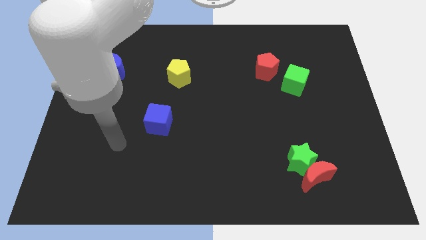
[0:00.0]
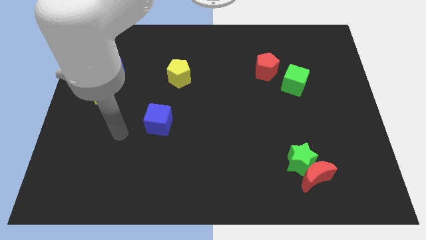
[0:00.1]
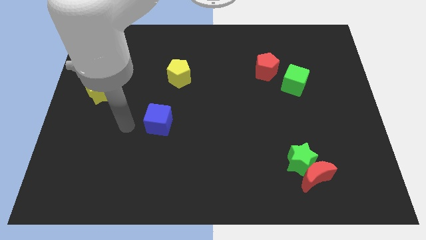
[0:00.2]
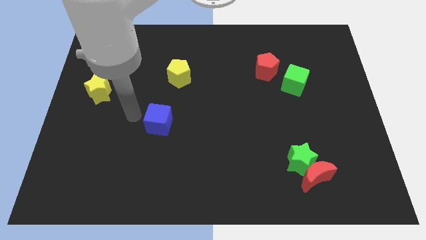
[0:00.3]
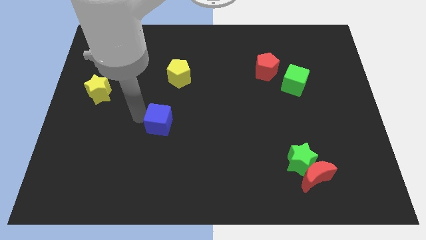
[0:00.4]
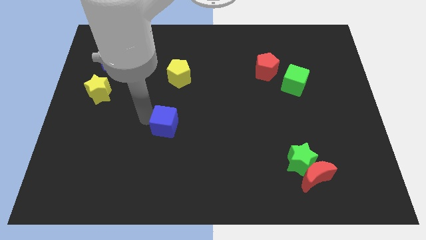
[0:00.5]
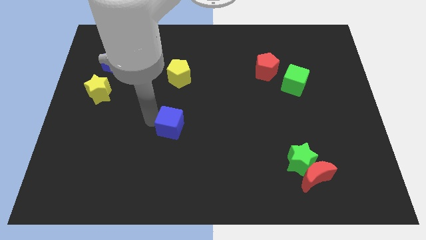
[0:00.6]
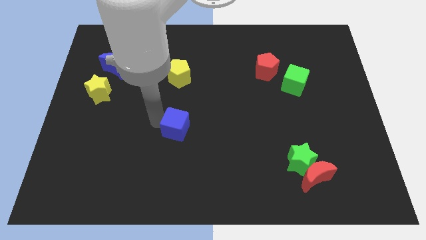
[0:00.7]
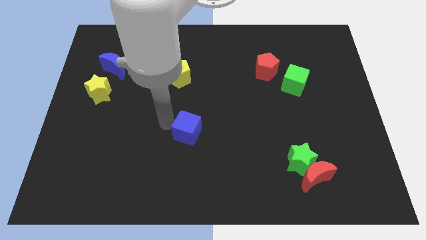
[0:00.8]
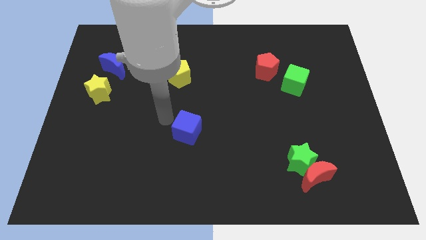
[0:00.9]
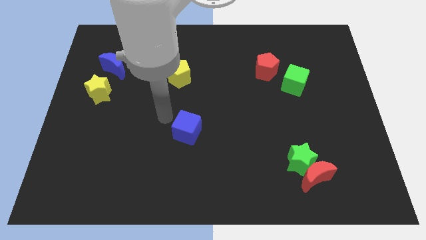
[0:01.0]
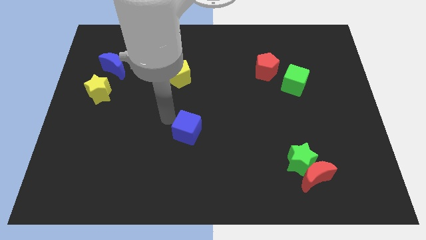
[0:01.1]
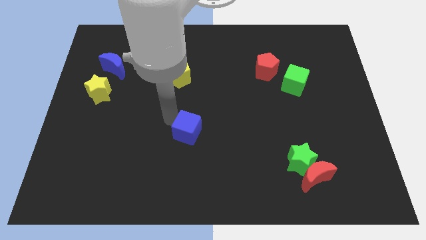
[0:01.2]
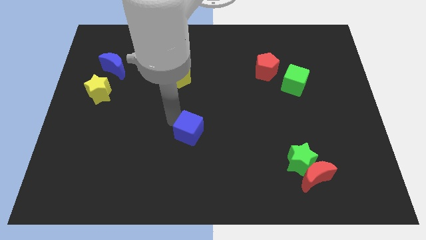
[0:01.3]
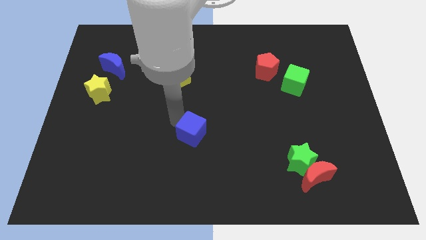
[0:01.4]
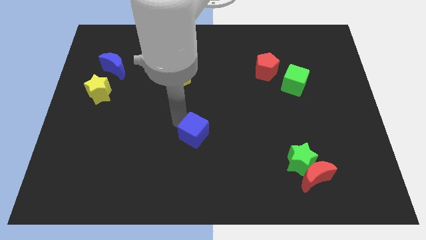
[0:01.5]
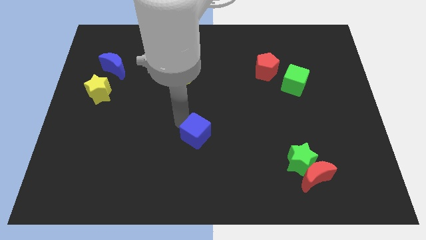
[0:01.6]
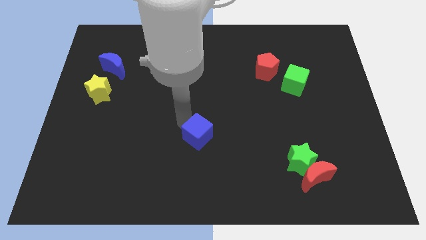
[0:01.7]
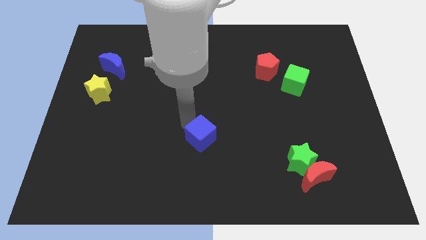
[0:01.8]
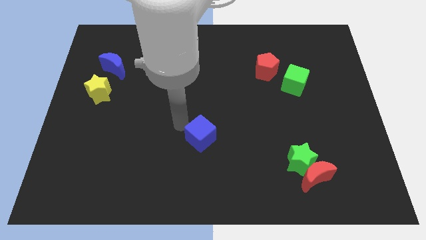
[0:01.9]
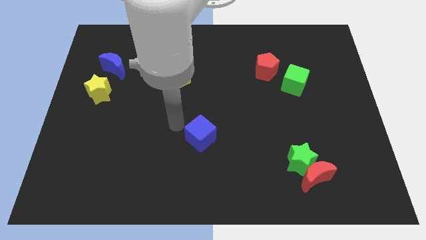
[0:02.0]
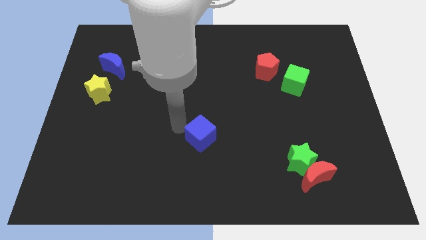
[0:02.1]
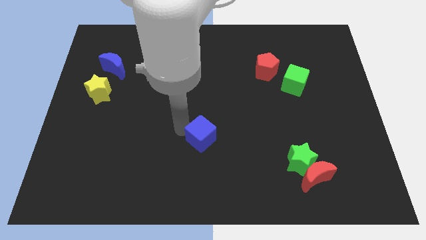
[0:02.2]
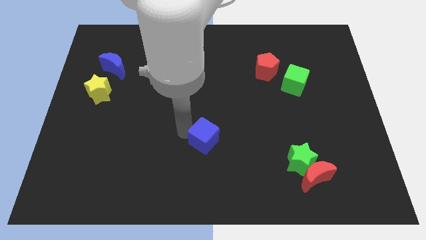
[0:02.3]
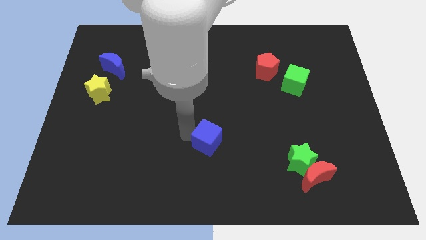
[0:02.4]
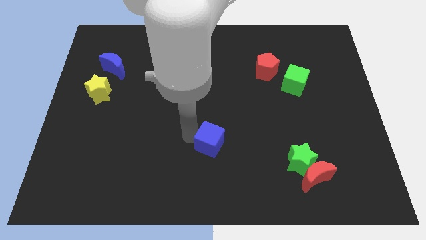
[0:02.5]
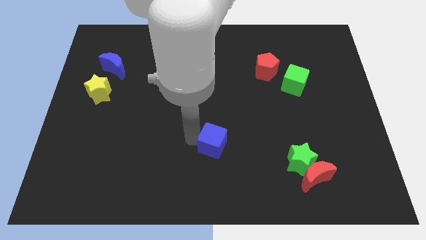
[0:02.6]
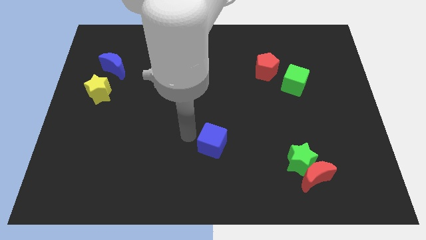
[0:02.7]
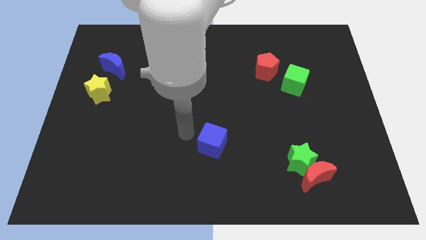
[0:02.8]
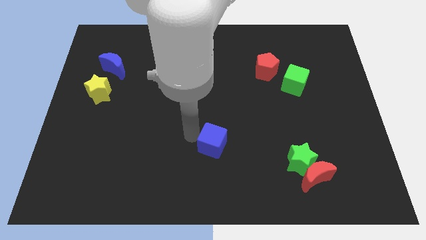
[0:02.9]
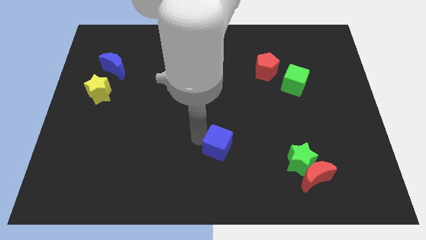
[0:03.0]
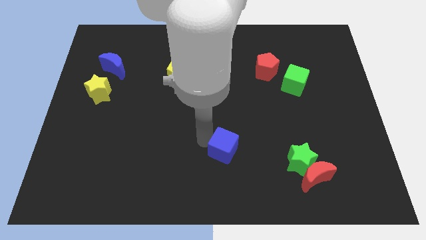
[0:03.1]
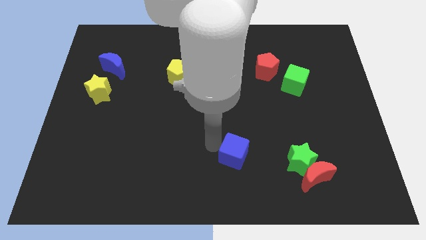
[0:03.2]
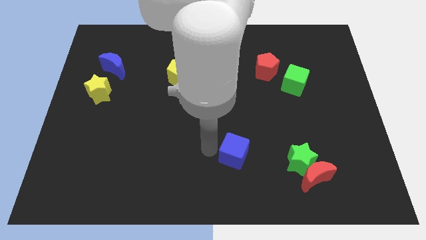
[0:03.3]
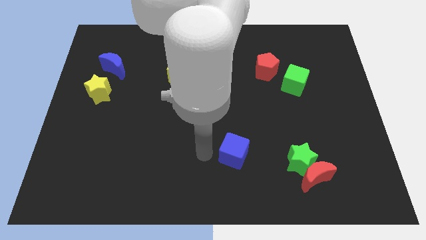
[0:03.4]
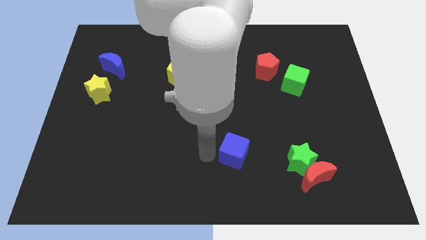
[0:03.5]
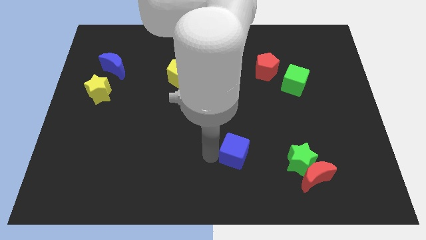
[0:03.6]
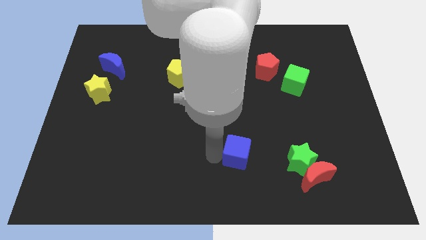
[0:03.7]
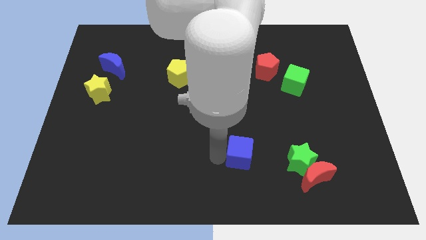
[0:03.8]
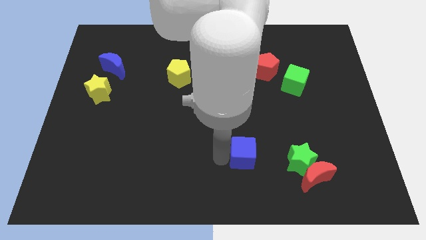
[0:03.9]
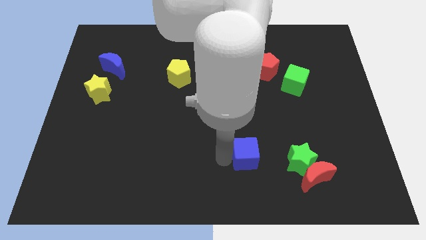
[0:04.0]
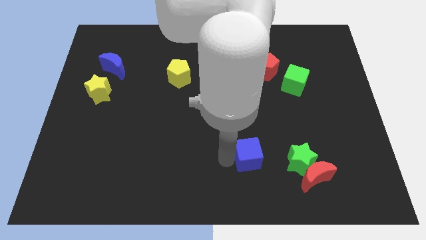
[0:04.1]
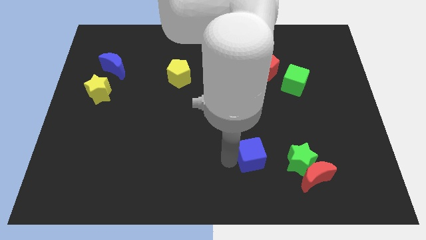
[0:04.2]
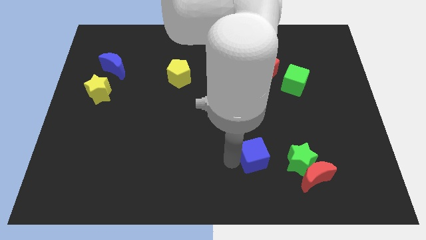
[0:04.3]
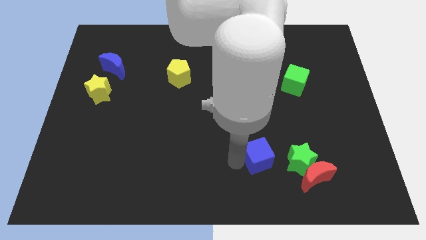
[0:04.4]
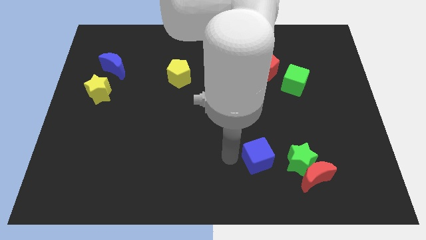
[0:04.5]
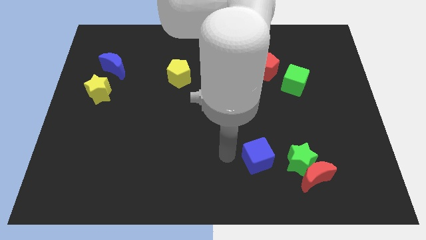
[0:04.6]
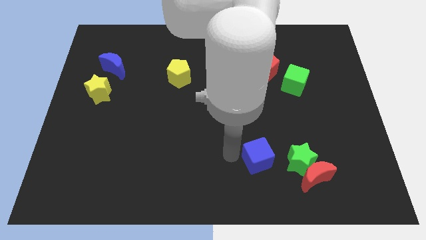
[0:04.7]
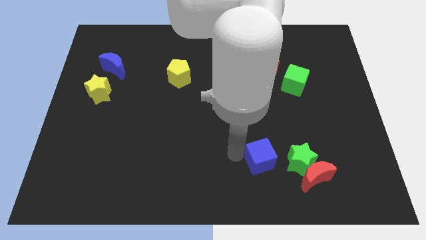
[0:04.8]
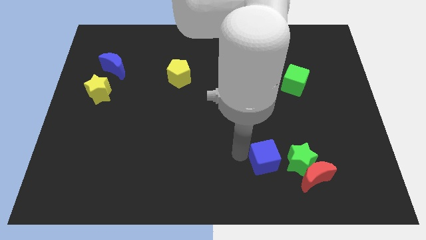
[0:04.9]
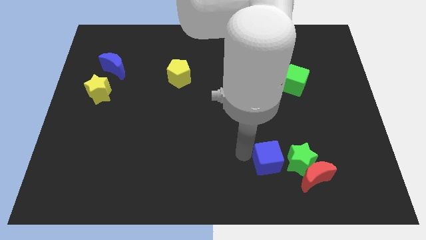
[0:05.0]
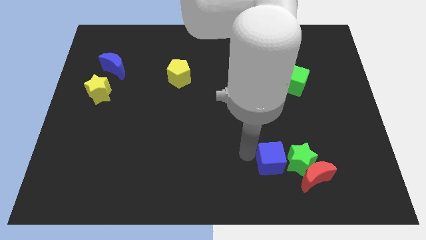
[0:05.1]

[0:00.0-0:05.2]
put the blue cube close to the green star

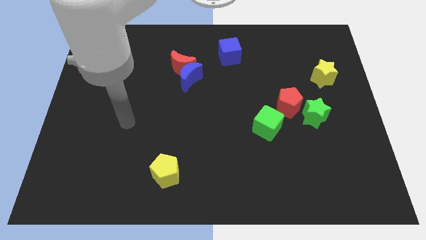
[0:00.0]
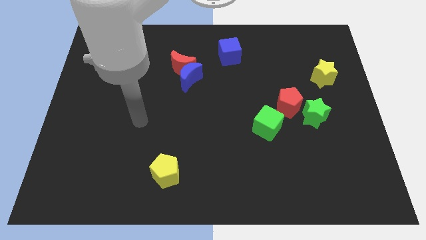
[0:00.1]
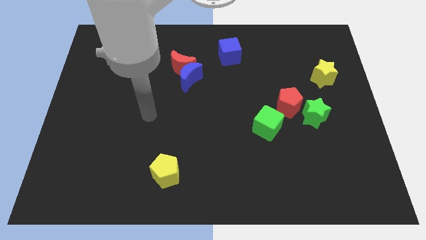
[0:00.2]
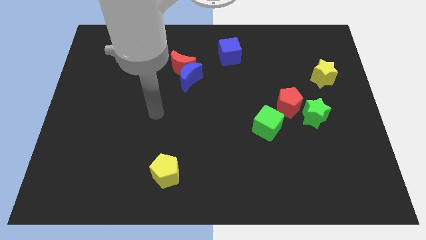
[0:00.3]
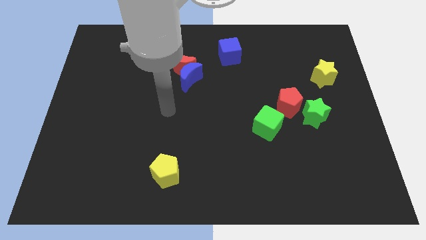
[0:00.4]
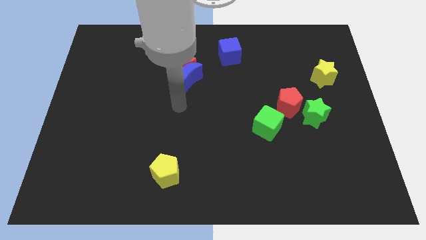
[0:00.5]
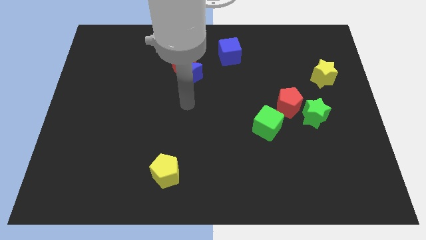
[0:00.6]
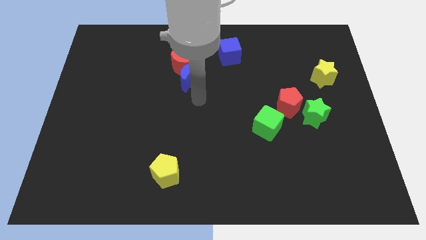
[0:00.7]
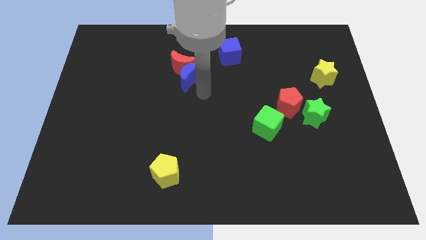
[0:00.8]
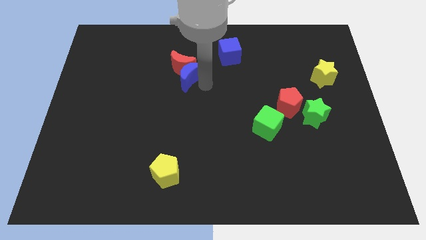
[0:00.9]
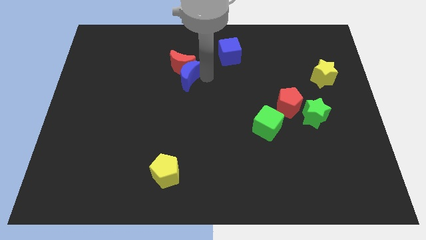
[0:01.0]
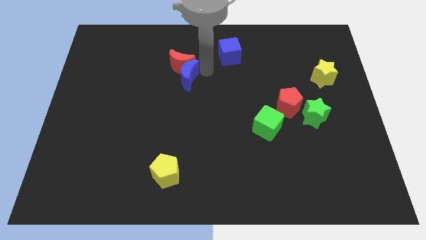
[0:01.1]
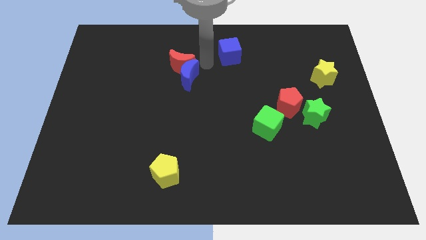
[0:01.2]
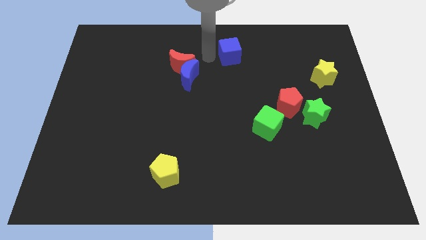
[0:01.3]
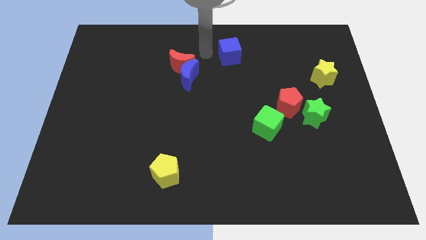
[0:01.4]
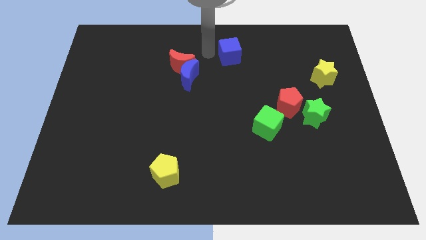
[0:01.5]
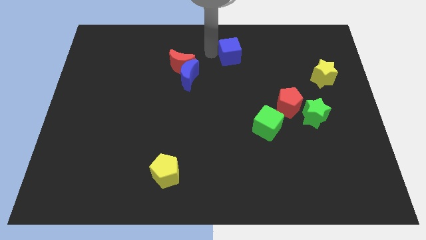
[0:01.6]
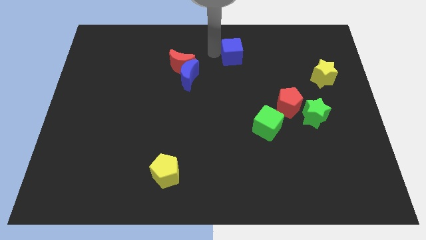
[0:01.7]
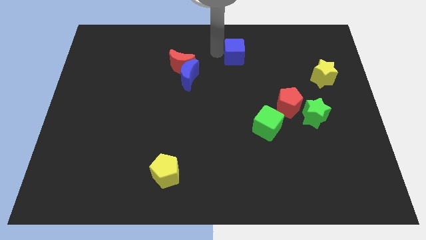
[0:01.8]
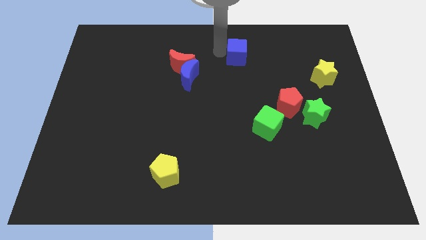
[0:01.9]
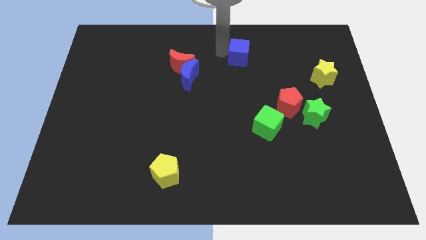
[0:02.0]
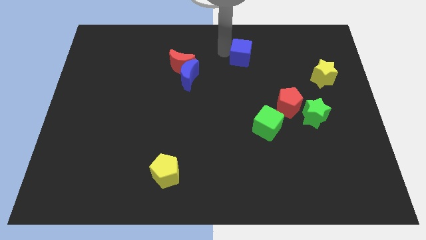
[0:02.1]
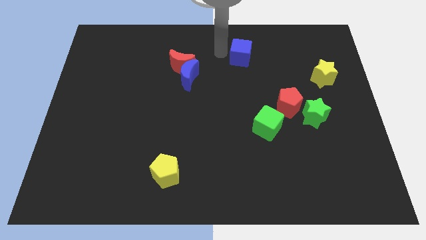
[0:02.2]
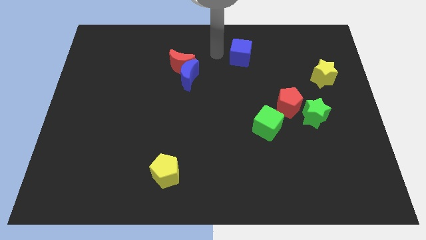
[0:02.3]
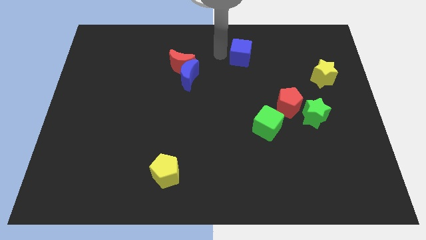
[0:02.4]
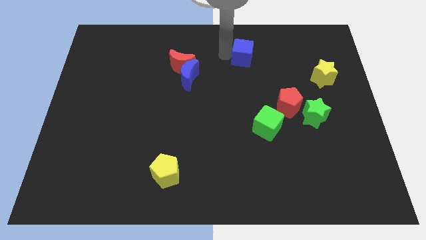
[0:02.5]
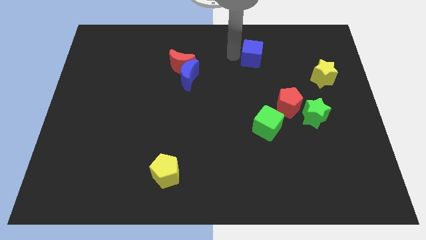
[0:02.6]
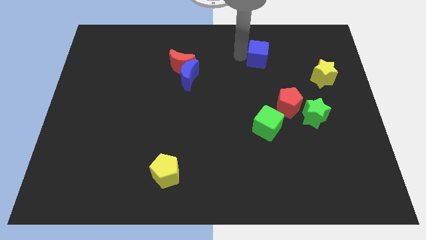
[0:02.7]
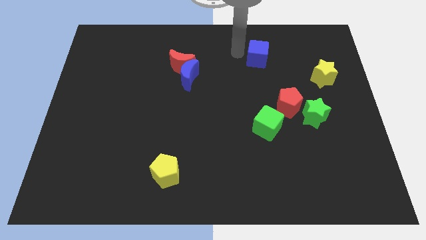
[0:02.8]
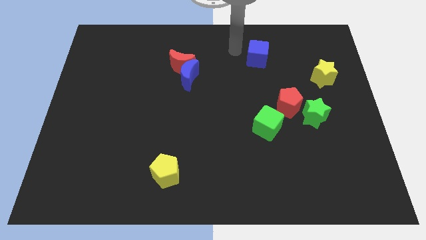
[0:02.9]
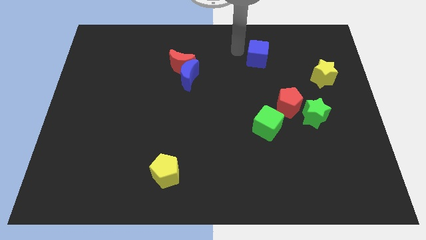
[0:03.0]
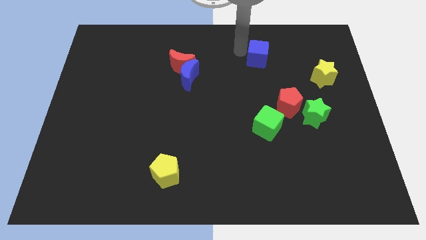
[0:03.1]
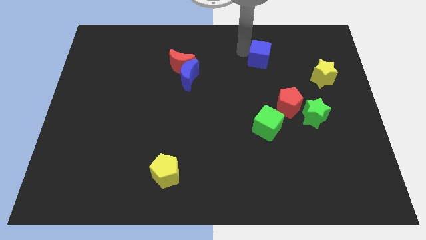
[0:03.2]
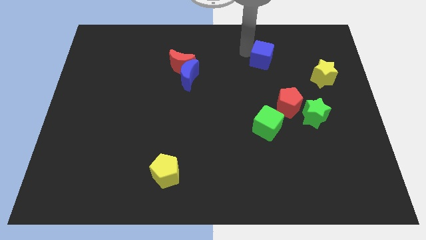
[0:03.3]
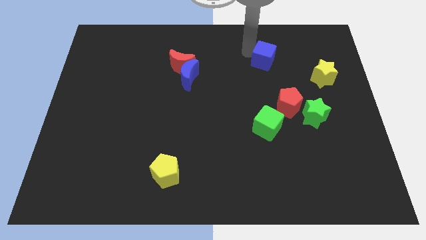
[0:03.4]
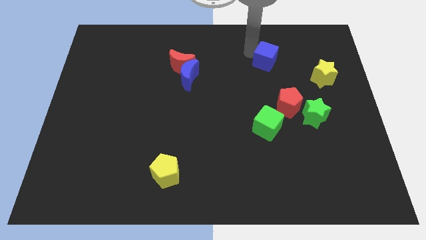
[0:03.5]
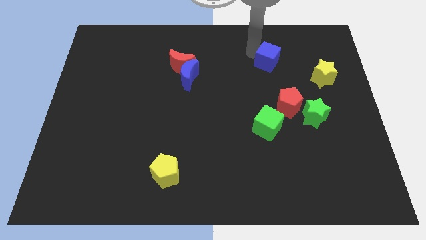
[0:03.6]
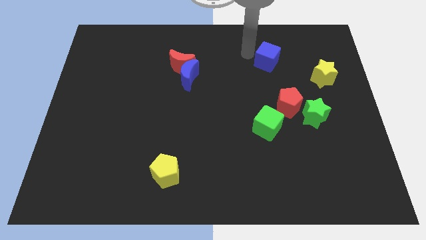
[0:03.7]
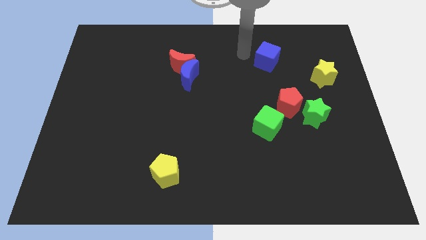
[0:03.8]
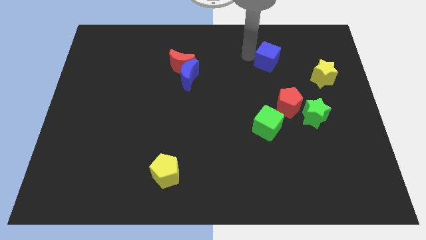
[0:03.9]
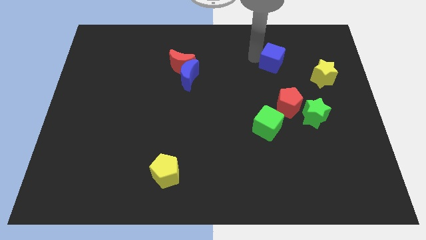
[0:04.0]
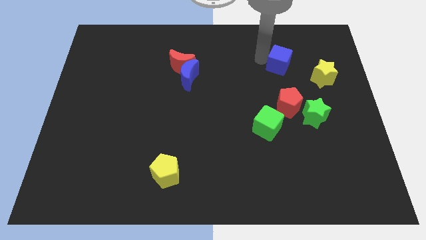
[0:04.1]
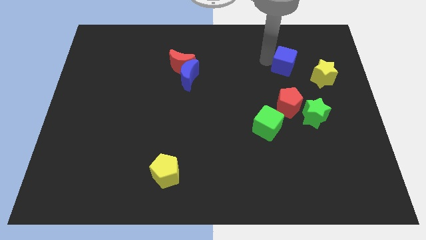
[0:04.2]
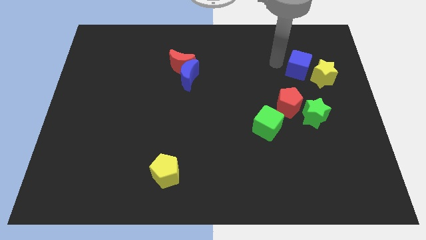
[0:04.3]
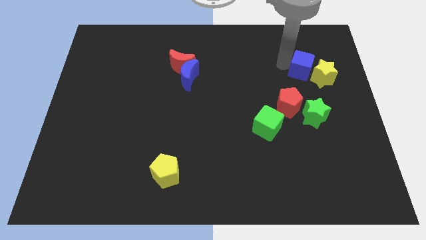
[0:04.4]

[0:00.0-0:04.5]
push the blue cube to the yellow star
